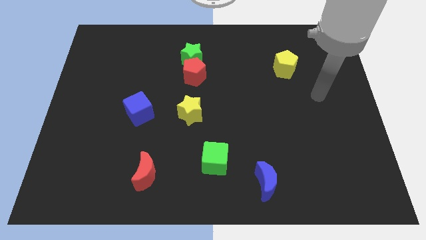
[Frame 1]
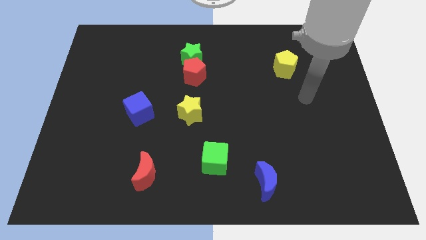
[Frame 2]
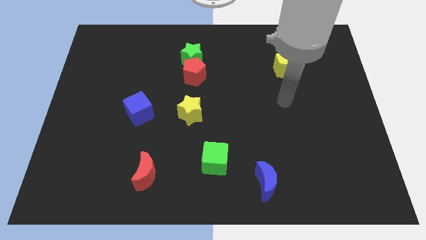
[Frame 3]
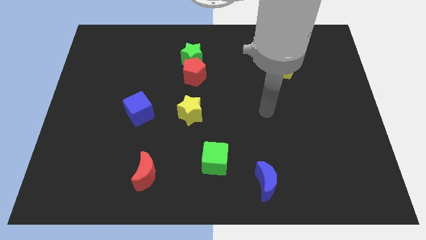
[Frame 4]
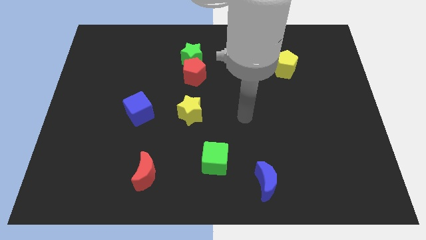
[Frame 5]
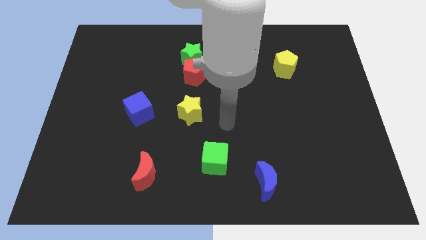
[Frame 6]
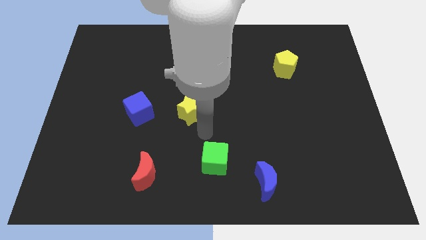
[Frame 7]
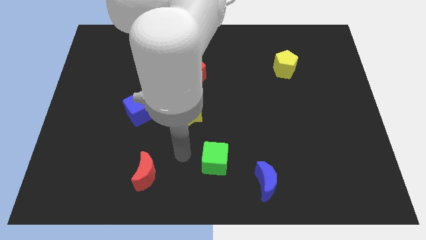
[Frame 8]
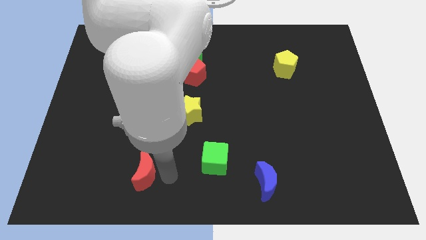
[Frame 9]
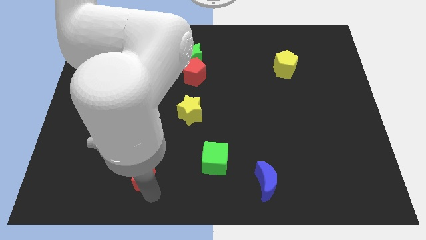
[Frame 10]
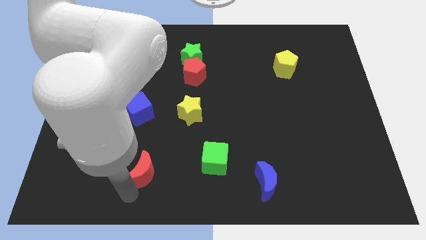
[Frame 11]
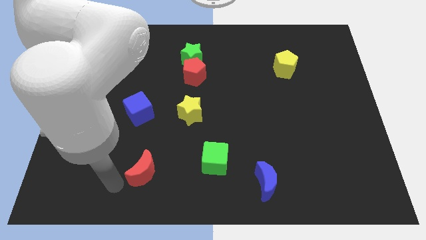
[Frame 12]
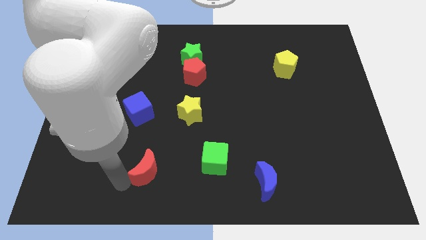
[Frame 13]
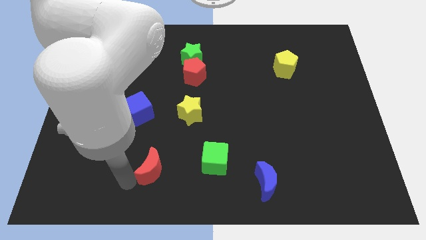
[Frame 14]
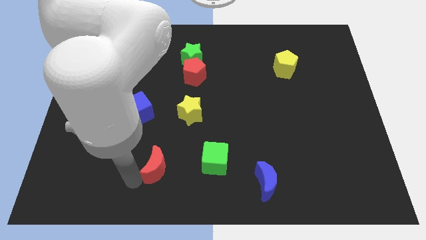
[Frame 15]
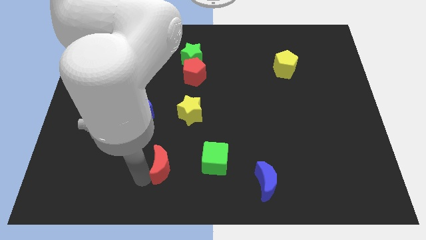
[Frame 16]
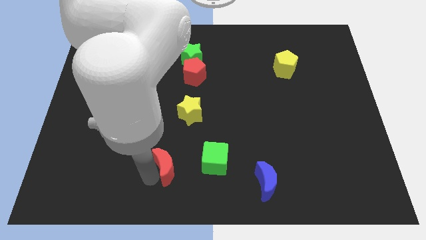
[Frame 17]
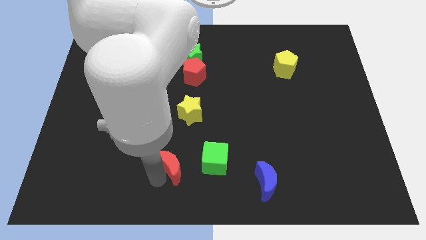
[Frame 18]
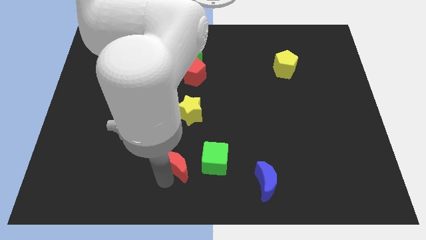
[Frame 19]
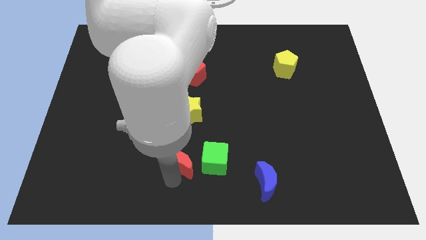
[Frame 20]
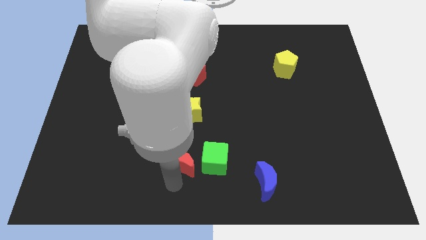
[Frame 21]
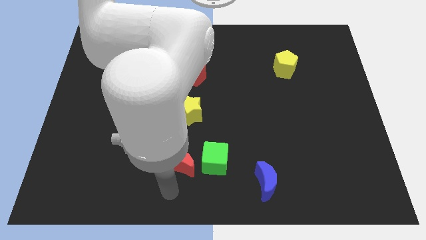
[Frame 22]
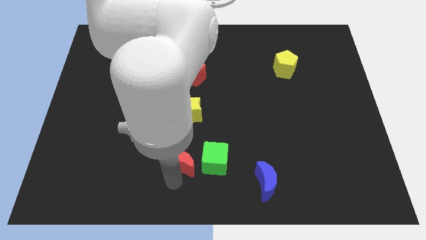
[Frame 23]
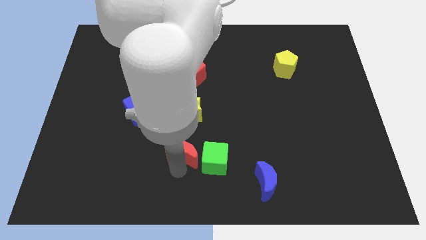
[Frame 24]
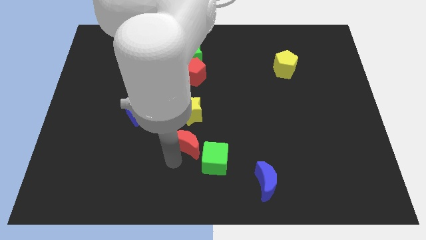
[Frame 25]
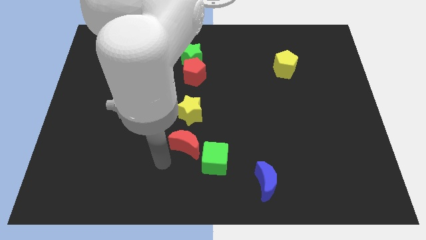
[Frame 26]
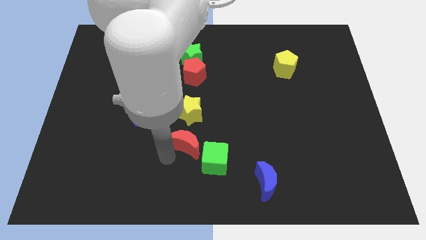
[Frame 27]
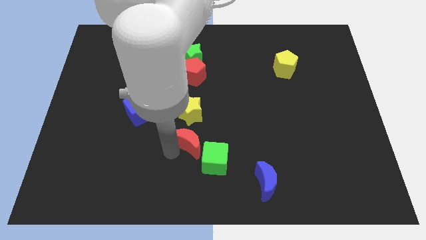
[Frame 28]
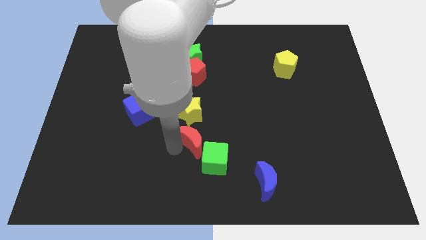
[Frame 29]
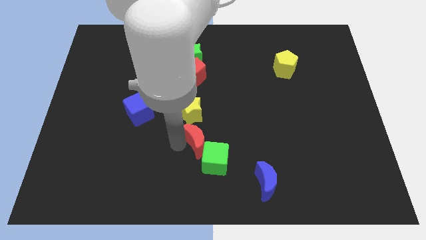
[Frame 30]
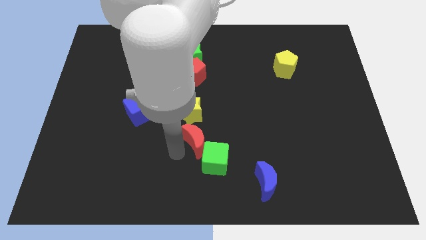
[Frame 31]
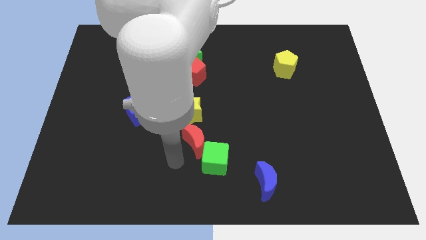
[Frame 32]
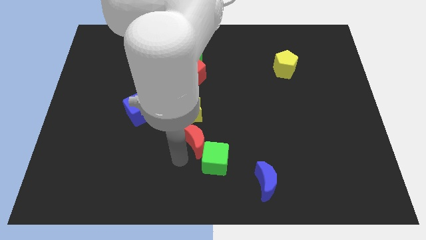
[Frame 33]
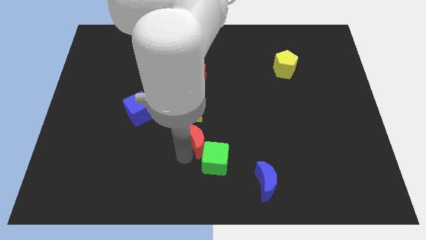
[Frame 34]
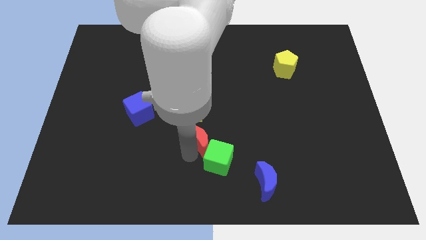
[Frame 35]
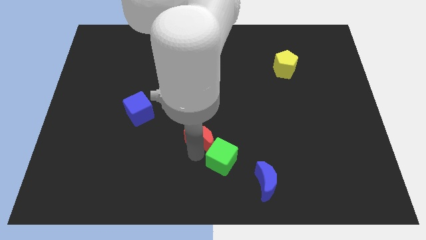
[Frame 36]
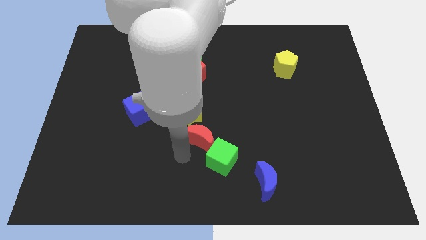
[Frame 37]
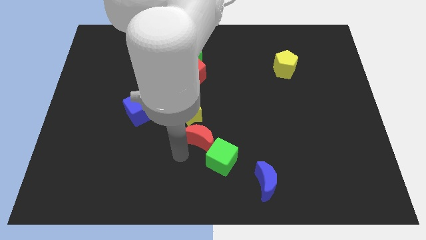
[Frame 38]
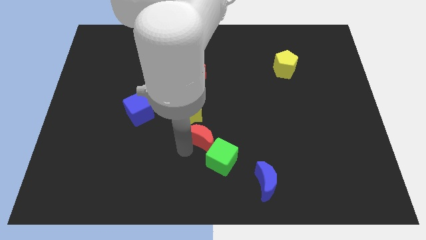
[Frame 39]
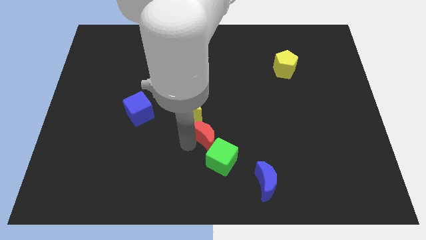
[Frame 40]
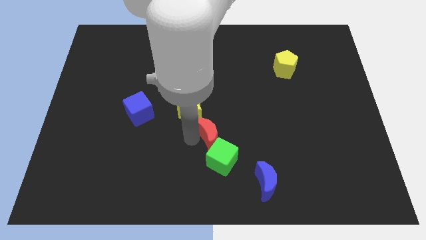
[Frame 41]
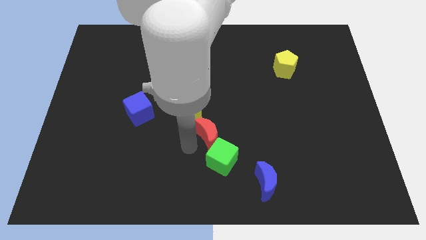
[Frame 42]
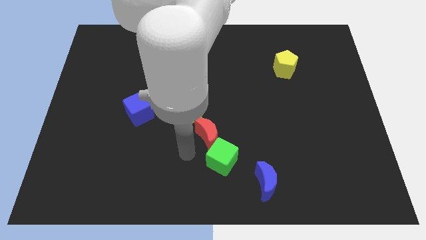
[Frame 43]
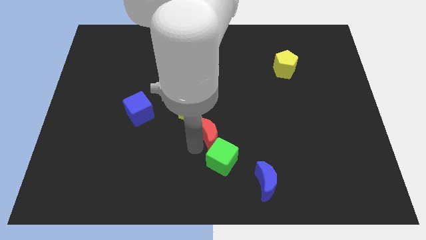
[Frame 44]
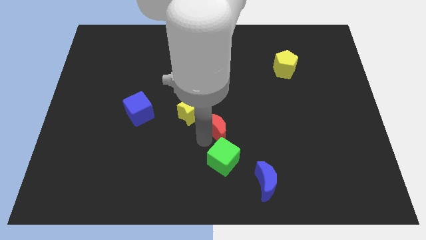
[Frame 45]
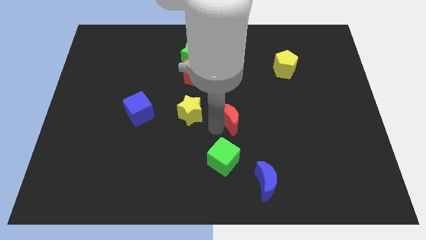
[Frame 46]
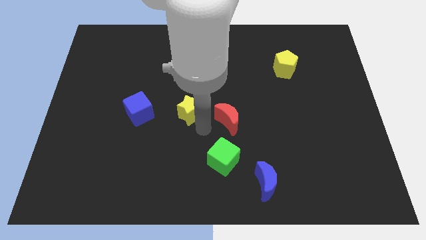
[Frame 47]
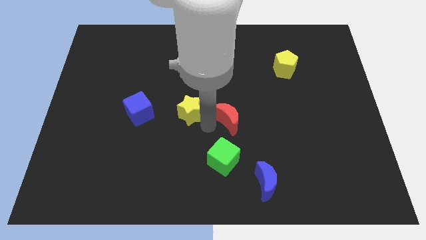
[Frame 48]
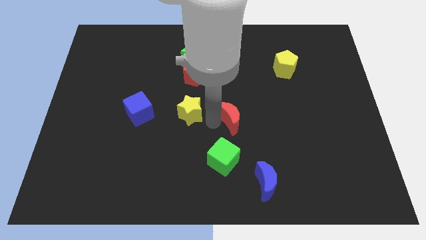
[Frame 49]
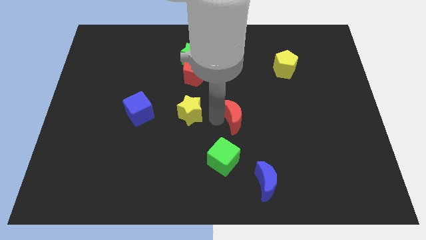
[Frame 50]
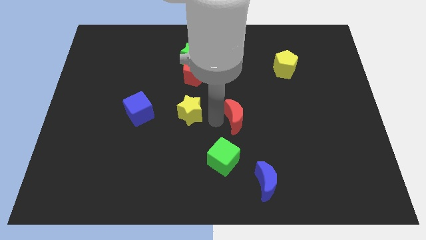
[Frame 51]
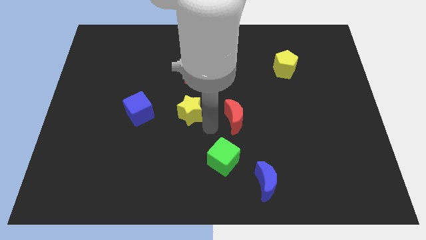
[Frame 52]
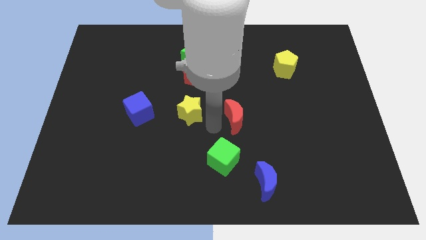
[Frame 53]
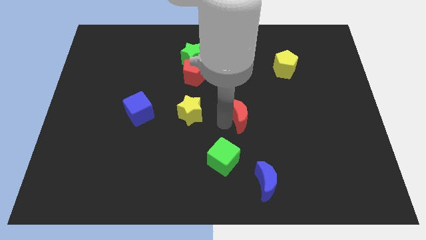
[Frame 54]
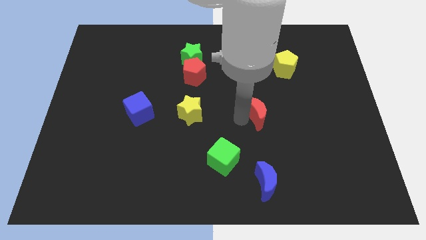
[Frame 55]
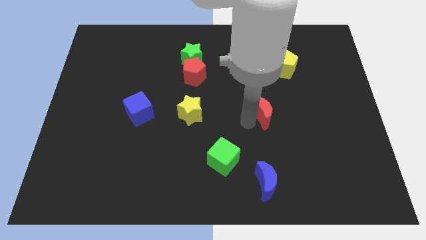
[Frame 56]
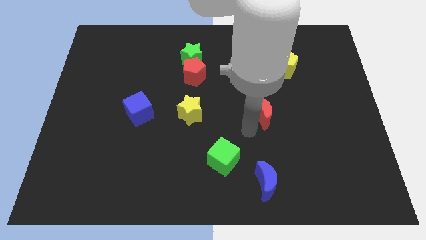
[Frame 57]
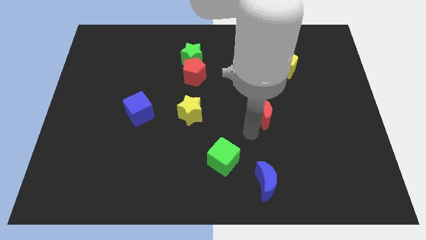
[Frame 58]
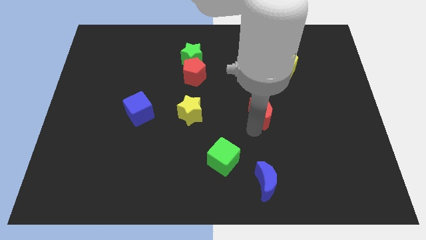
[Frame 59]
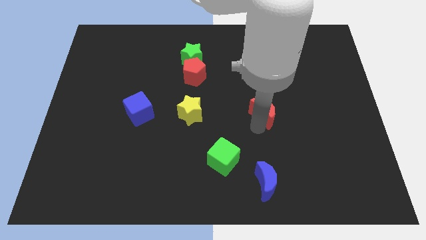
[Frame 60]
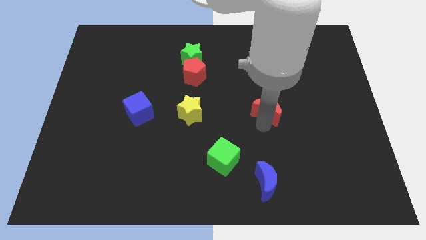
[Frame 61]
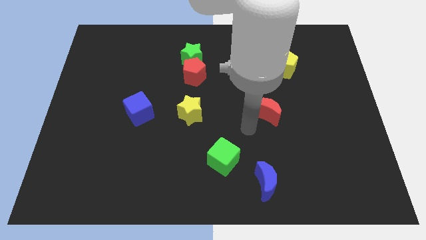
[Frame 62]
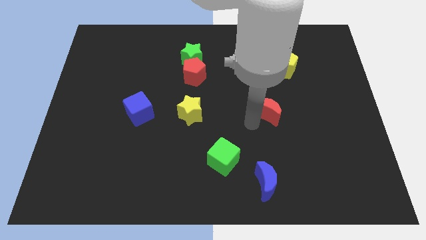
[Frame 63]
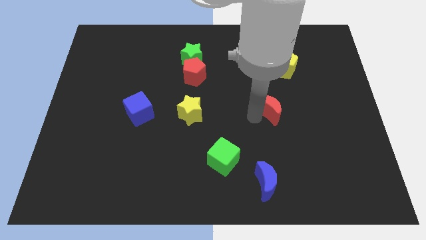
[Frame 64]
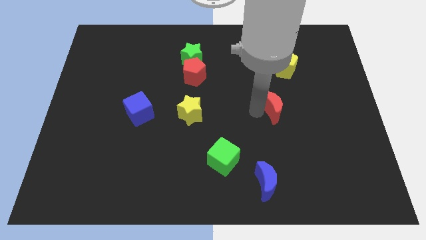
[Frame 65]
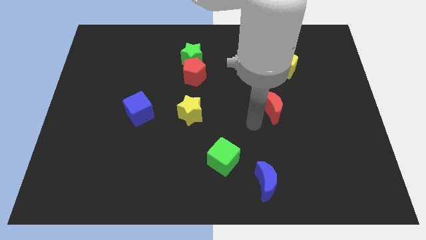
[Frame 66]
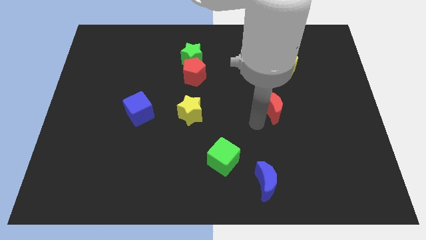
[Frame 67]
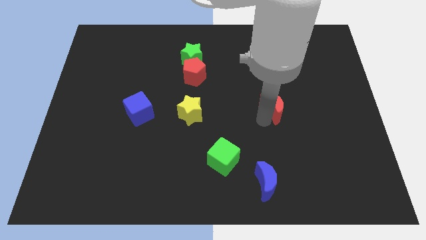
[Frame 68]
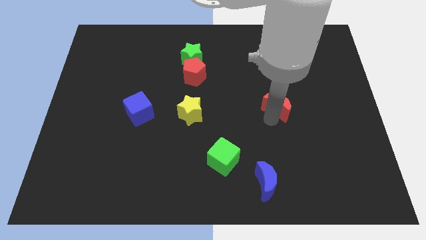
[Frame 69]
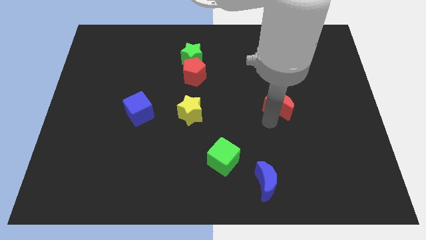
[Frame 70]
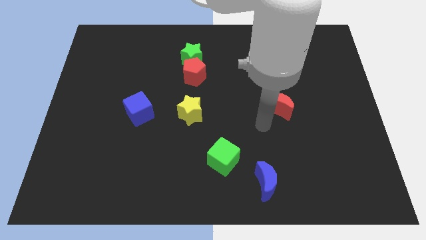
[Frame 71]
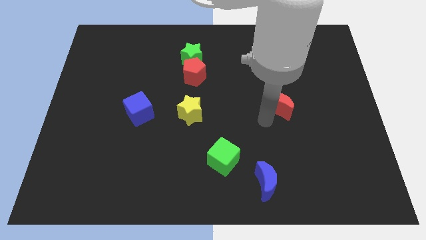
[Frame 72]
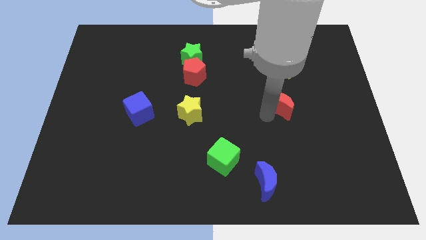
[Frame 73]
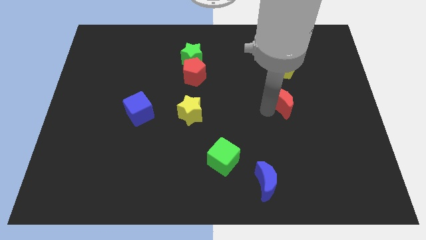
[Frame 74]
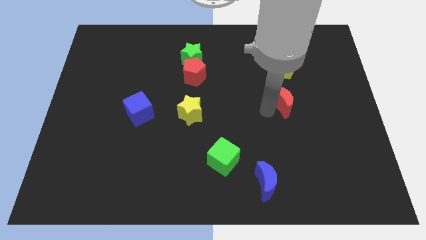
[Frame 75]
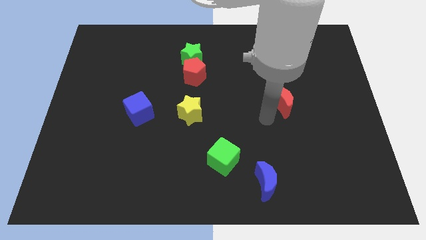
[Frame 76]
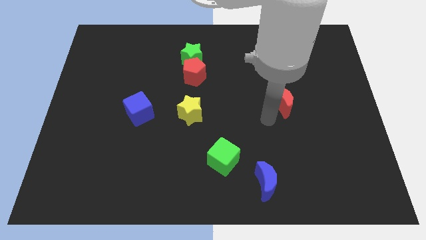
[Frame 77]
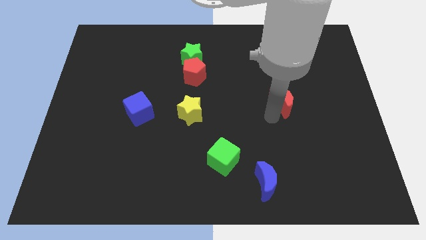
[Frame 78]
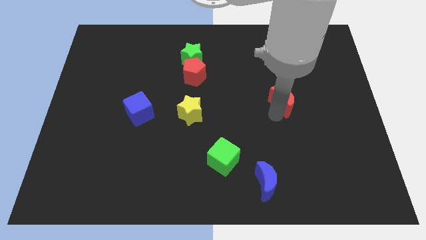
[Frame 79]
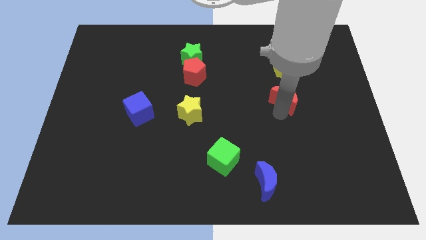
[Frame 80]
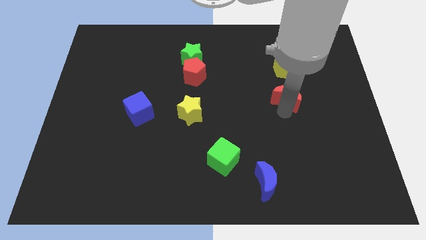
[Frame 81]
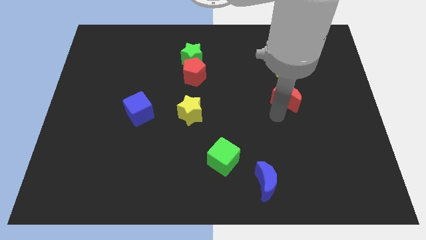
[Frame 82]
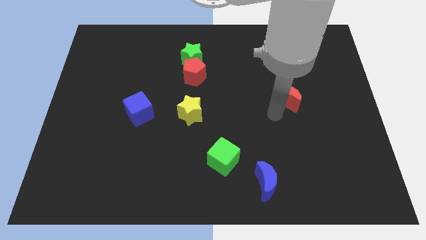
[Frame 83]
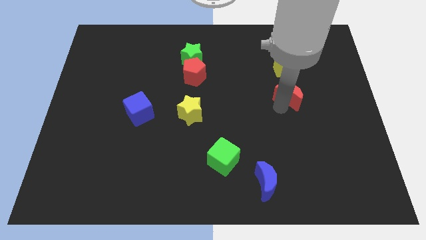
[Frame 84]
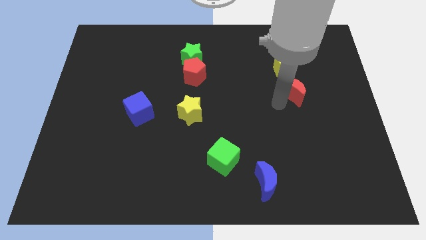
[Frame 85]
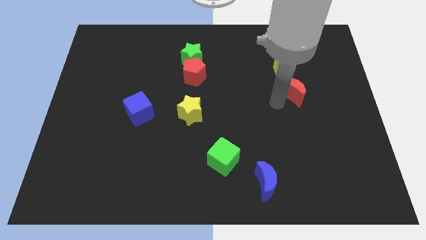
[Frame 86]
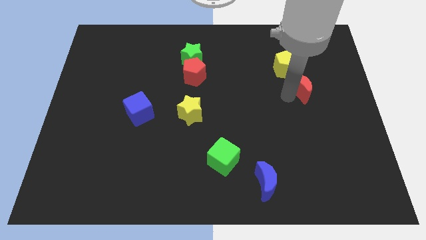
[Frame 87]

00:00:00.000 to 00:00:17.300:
move the red moon to the bottom right of the yellow pentagon
